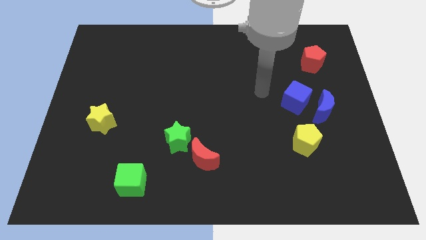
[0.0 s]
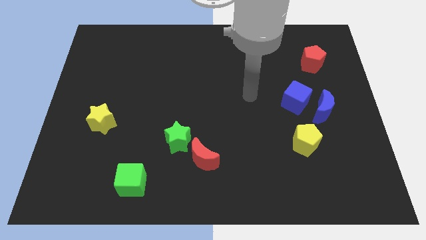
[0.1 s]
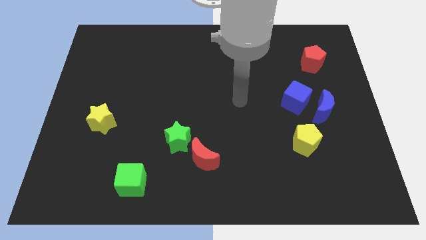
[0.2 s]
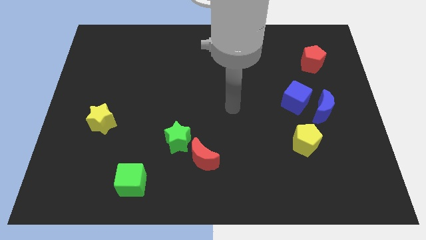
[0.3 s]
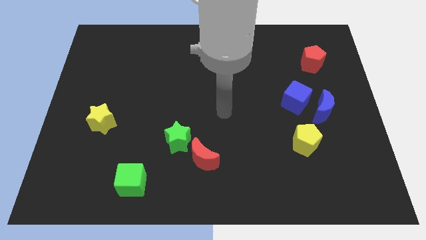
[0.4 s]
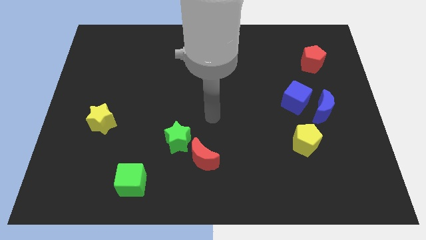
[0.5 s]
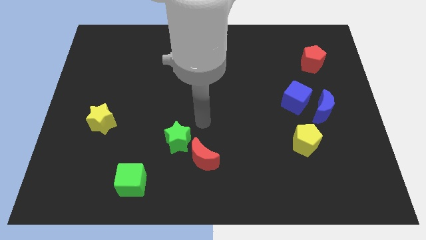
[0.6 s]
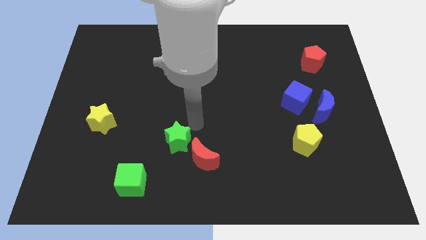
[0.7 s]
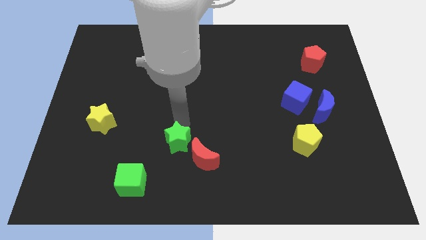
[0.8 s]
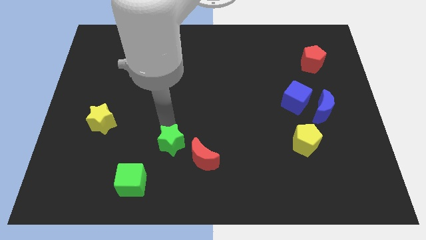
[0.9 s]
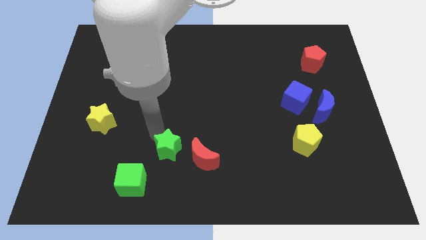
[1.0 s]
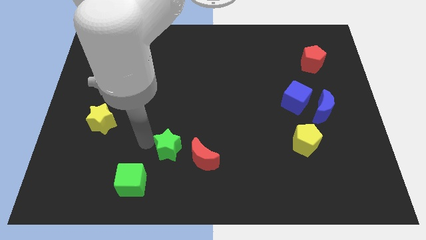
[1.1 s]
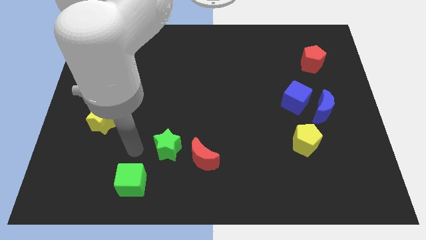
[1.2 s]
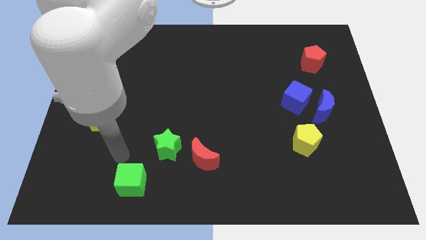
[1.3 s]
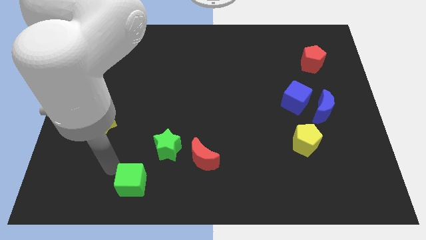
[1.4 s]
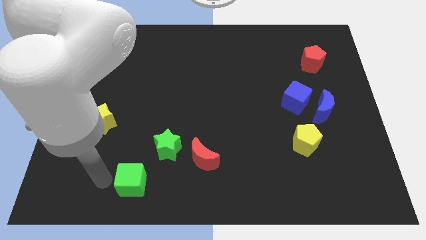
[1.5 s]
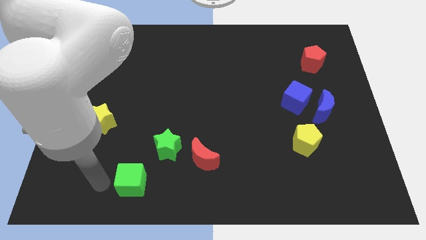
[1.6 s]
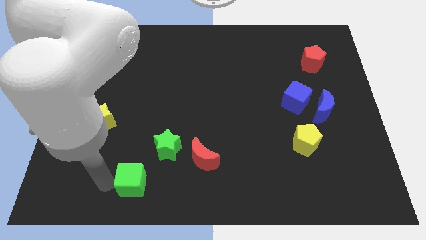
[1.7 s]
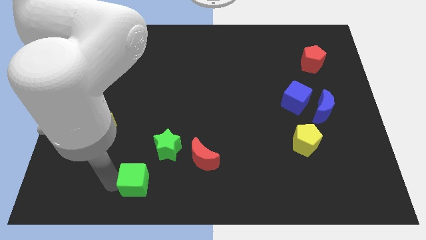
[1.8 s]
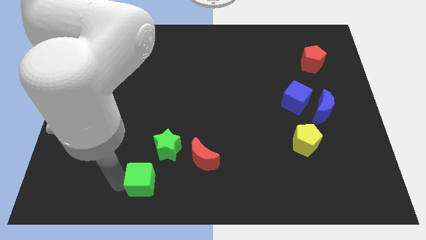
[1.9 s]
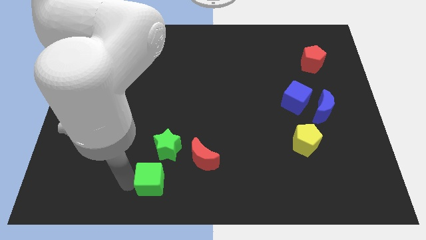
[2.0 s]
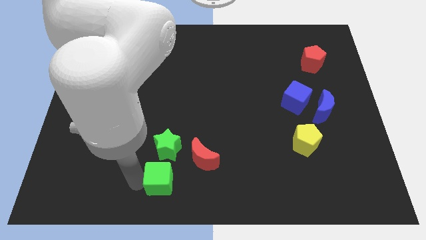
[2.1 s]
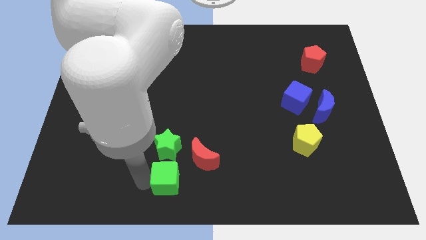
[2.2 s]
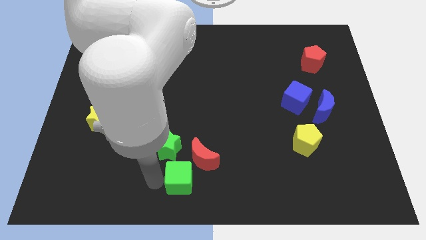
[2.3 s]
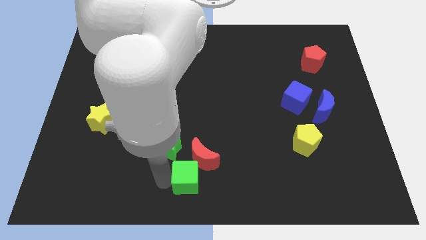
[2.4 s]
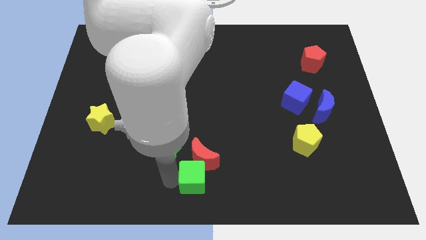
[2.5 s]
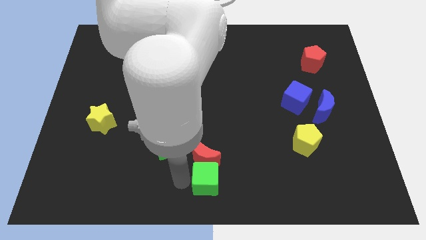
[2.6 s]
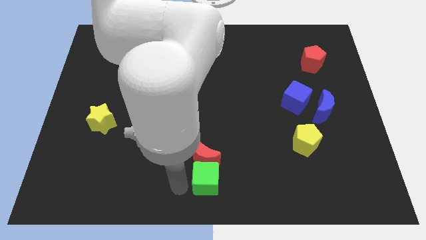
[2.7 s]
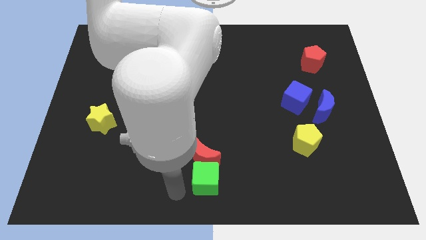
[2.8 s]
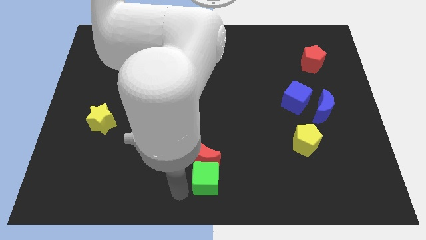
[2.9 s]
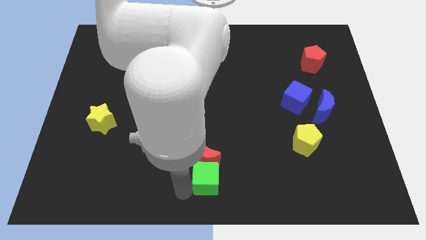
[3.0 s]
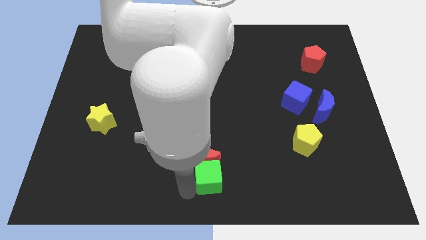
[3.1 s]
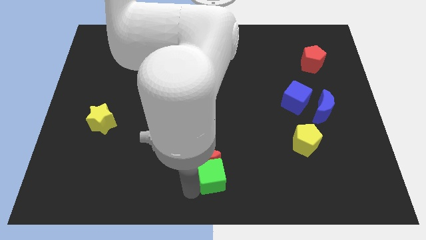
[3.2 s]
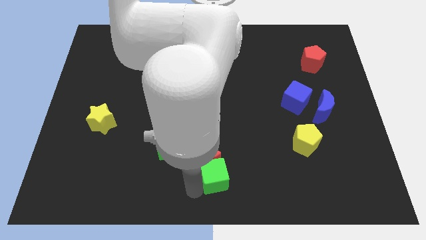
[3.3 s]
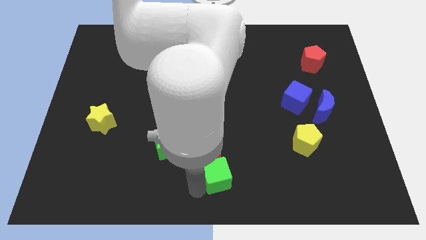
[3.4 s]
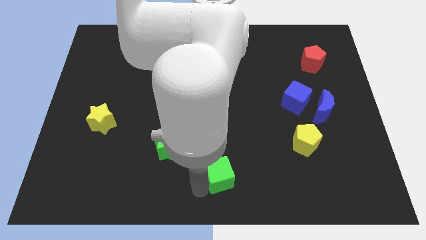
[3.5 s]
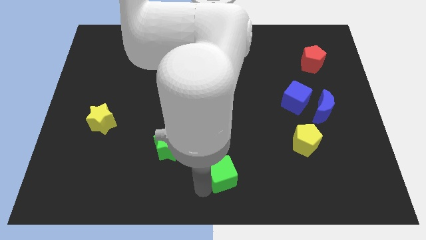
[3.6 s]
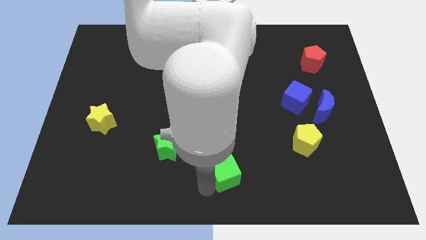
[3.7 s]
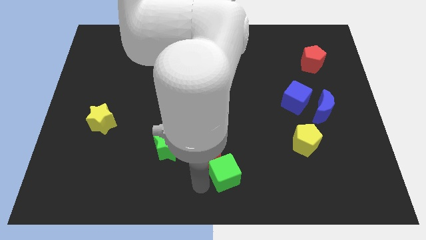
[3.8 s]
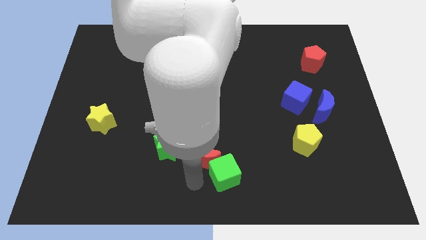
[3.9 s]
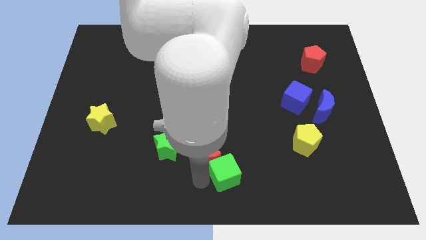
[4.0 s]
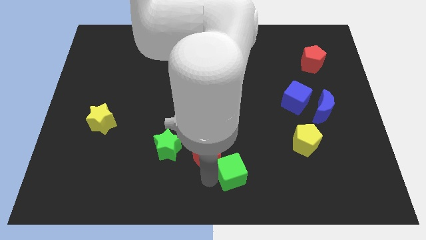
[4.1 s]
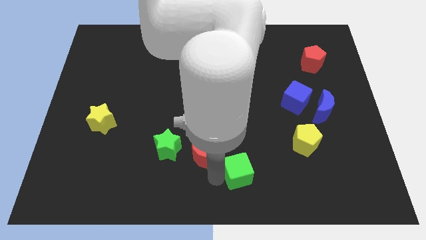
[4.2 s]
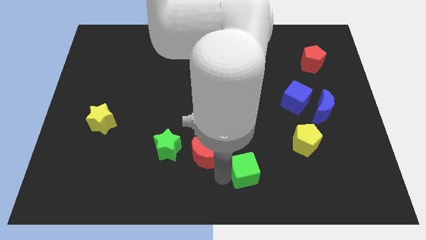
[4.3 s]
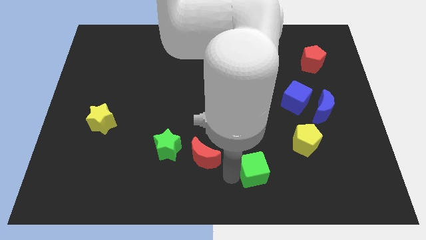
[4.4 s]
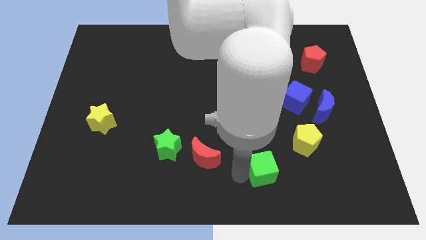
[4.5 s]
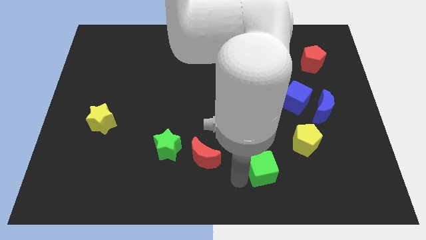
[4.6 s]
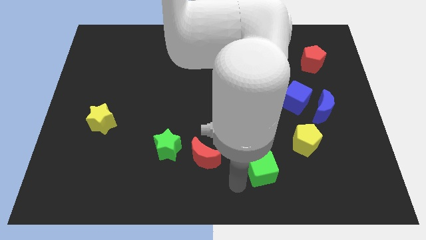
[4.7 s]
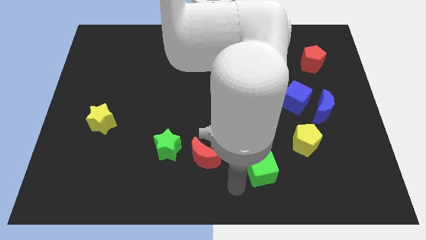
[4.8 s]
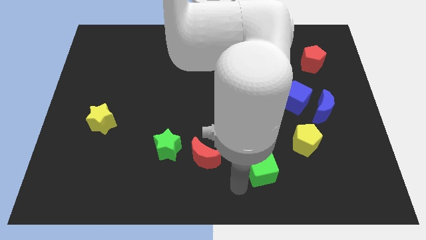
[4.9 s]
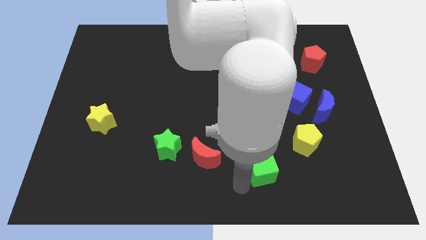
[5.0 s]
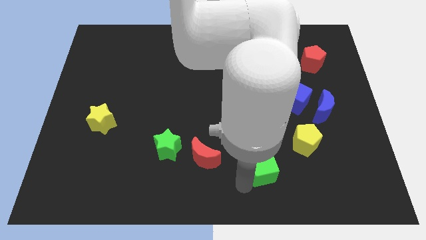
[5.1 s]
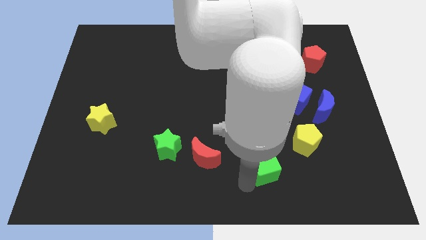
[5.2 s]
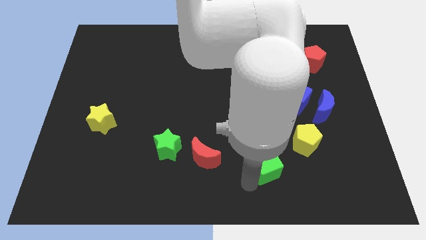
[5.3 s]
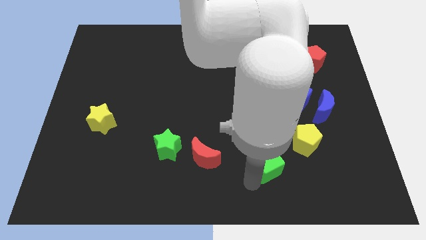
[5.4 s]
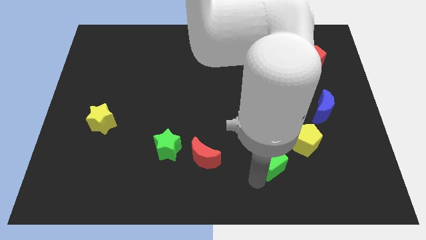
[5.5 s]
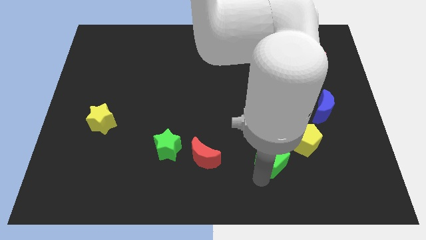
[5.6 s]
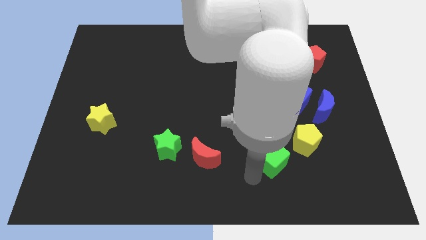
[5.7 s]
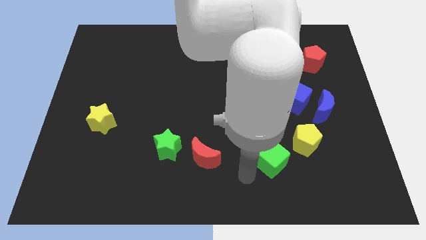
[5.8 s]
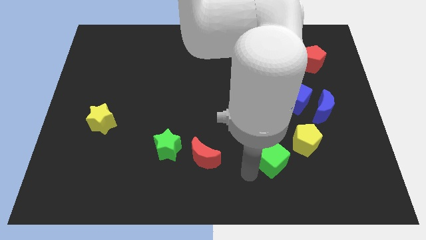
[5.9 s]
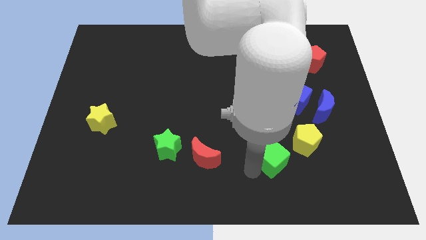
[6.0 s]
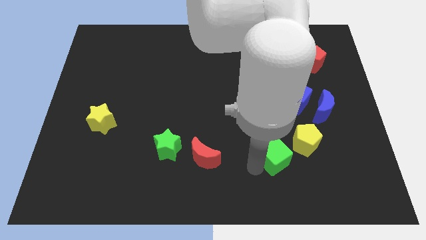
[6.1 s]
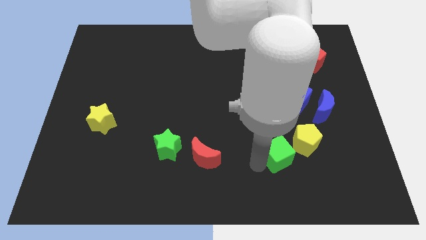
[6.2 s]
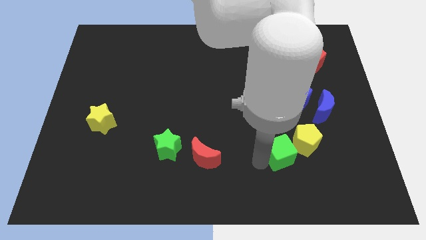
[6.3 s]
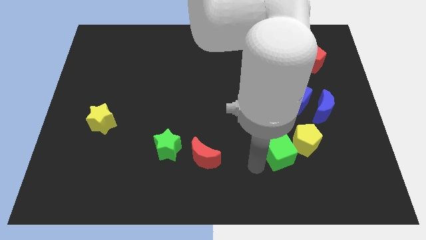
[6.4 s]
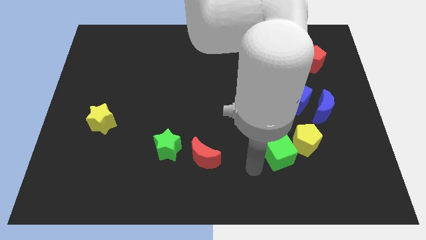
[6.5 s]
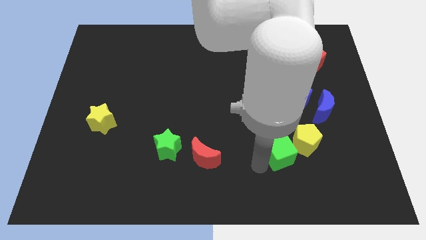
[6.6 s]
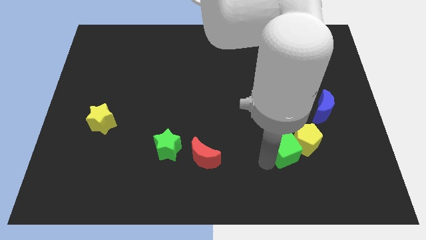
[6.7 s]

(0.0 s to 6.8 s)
slide the green cube next to the yellow pentagon

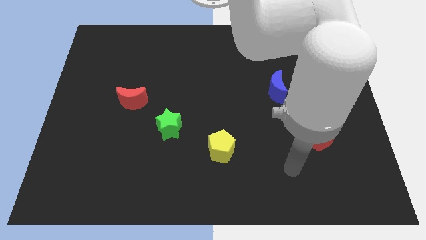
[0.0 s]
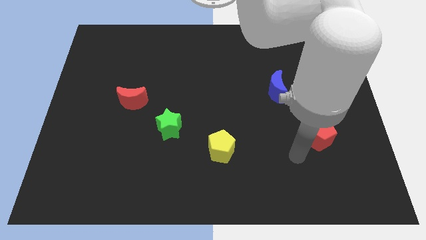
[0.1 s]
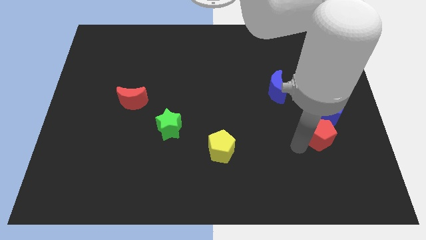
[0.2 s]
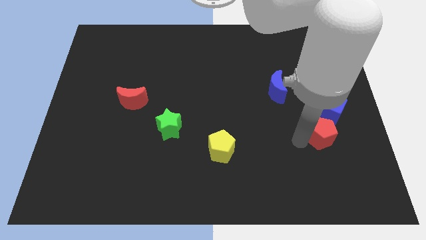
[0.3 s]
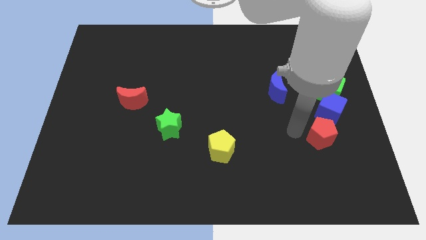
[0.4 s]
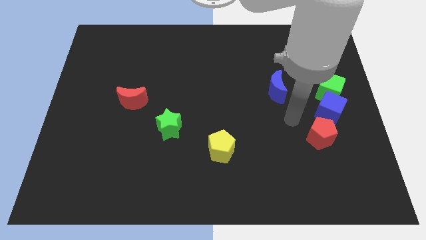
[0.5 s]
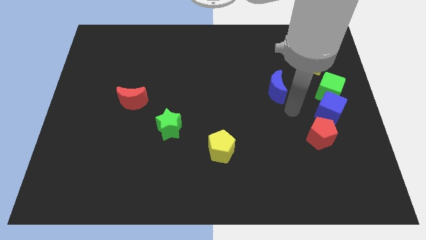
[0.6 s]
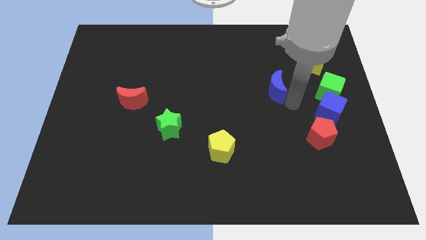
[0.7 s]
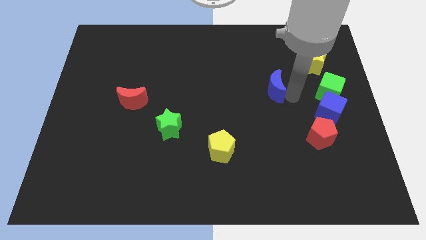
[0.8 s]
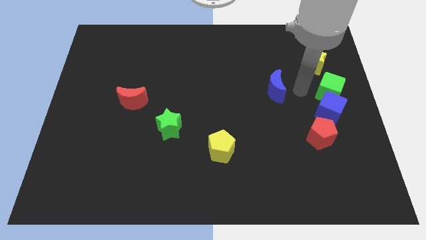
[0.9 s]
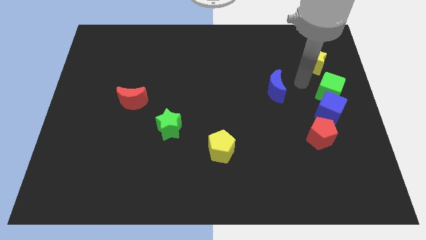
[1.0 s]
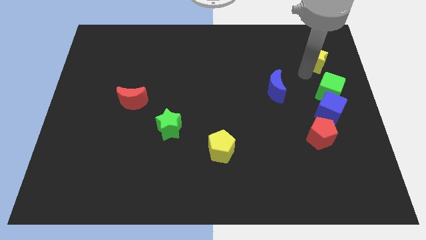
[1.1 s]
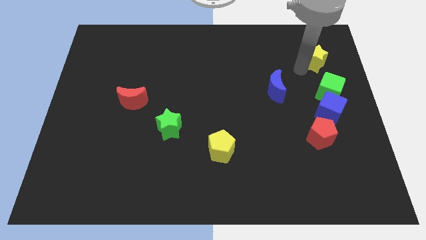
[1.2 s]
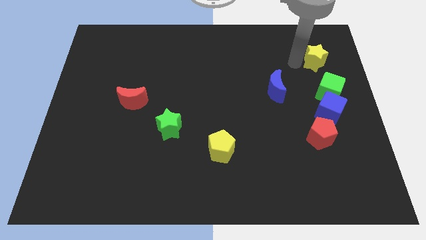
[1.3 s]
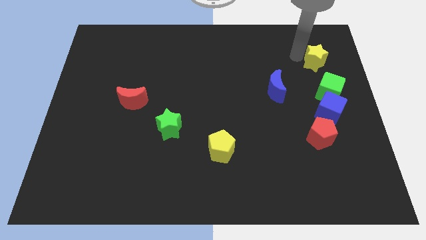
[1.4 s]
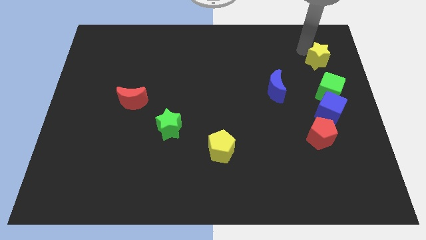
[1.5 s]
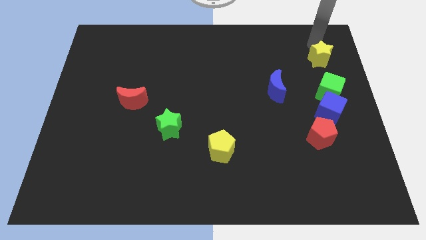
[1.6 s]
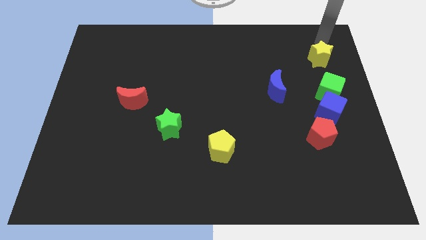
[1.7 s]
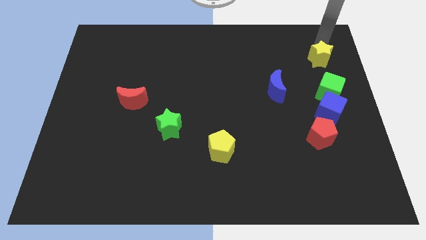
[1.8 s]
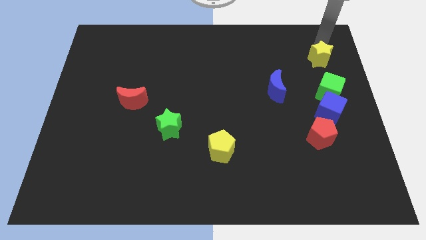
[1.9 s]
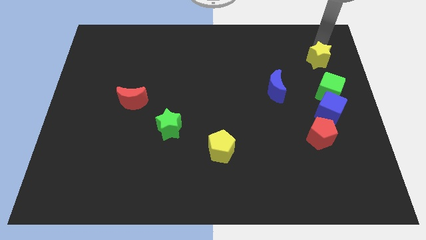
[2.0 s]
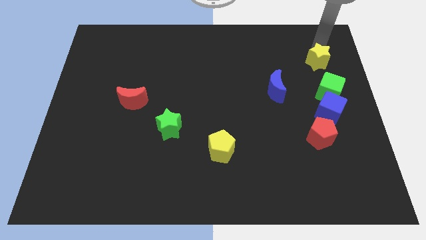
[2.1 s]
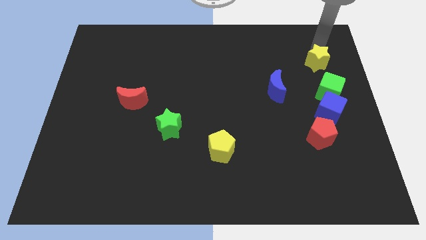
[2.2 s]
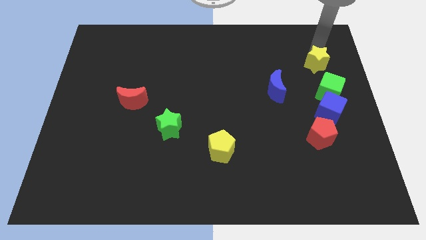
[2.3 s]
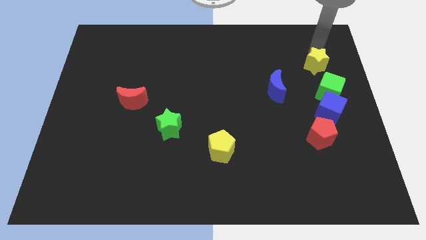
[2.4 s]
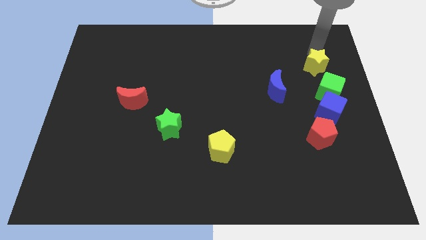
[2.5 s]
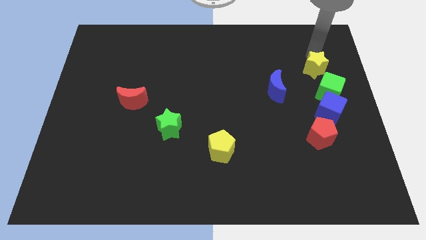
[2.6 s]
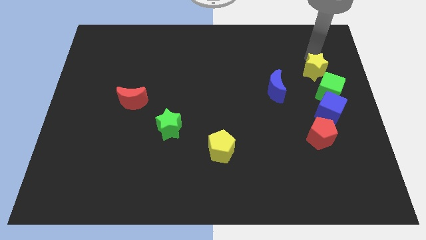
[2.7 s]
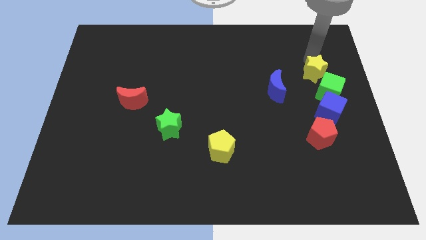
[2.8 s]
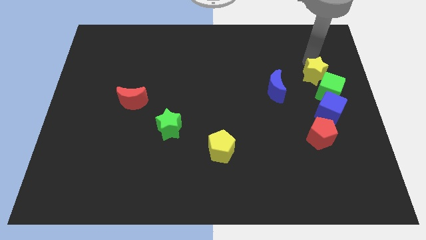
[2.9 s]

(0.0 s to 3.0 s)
slide the yellow star next to the green cube
